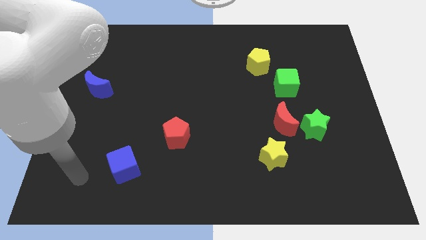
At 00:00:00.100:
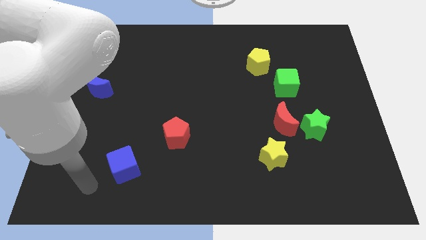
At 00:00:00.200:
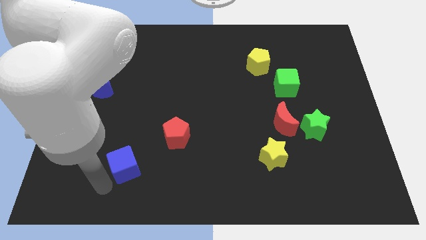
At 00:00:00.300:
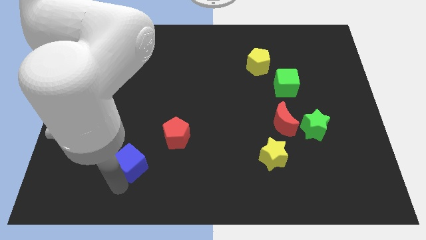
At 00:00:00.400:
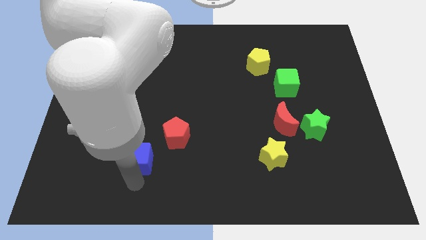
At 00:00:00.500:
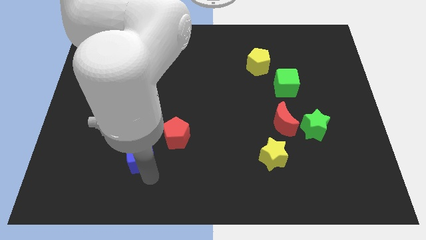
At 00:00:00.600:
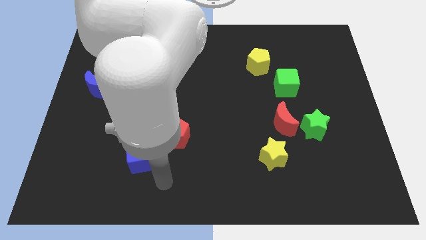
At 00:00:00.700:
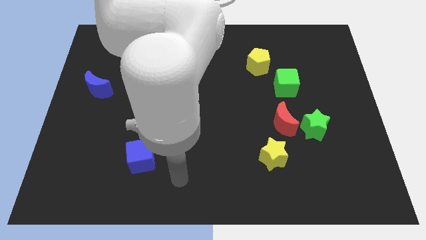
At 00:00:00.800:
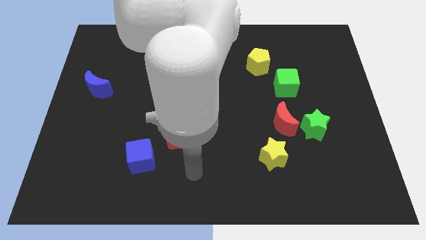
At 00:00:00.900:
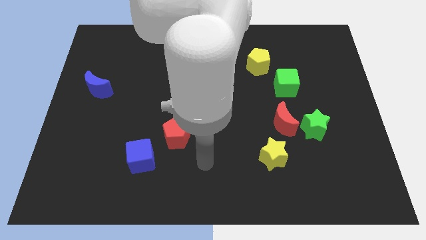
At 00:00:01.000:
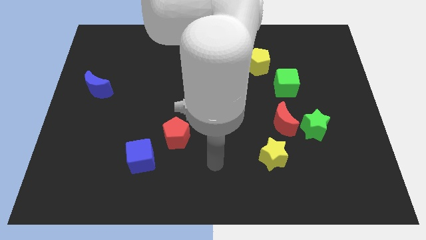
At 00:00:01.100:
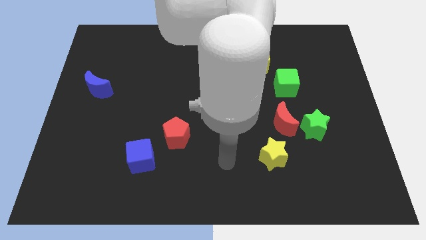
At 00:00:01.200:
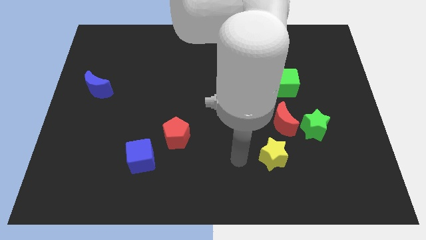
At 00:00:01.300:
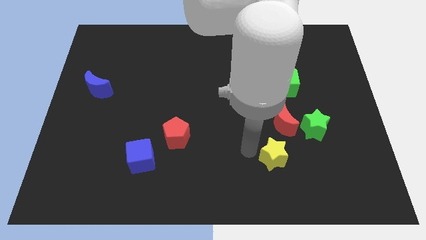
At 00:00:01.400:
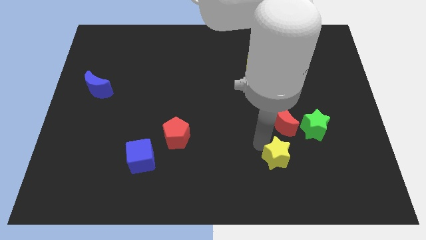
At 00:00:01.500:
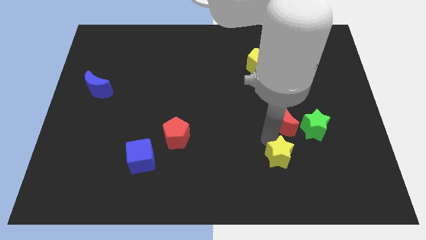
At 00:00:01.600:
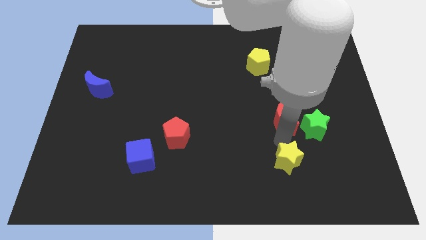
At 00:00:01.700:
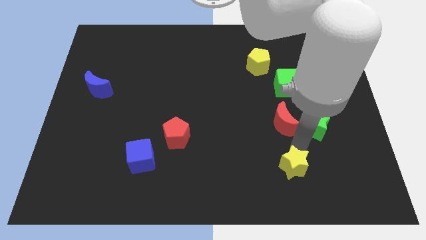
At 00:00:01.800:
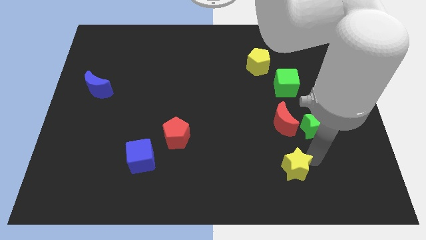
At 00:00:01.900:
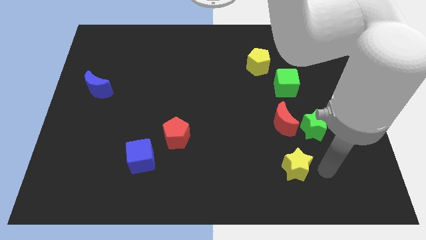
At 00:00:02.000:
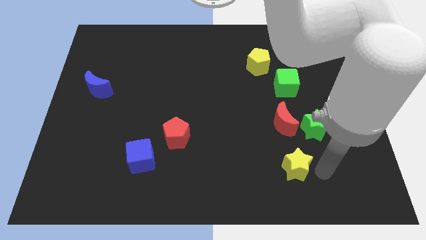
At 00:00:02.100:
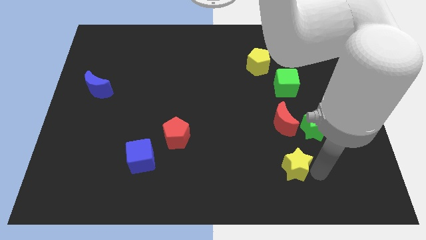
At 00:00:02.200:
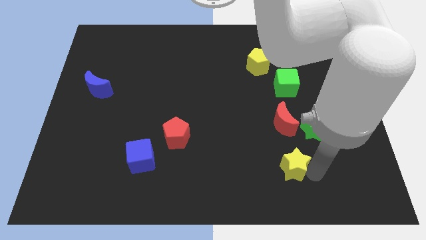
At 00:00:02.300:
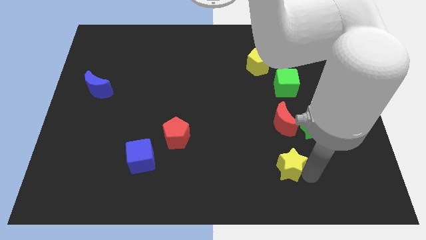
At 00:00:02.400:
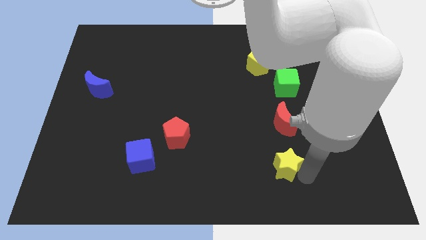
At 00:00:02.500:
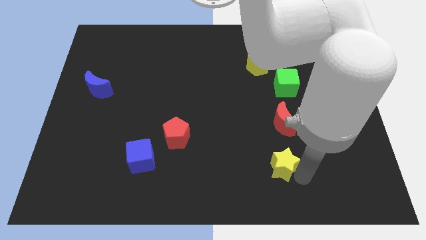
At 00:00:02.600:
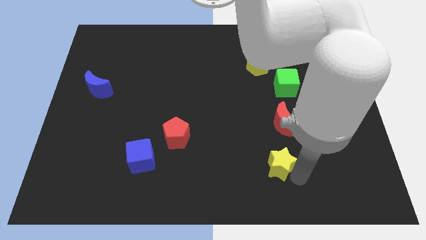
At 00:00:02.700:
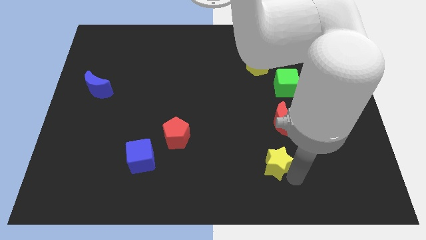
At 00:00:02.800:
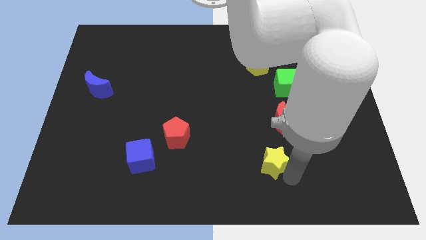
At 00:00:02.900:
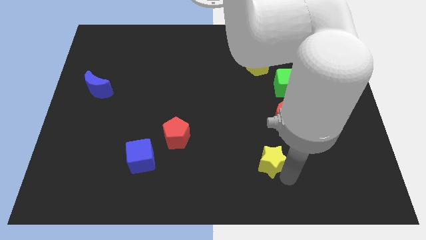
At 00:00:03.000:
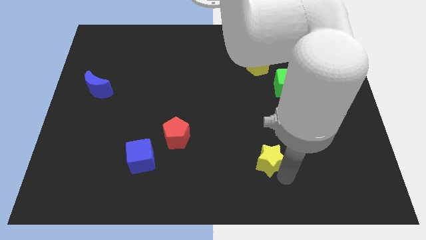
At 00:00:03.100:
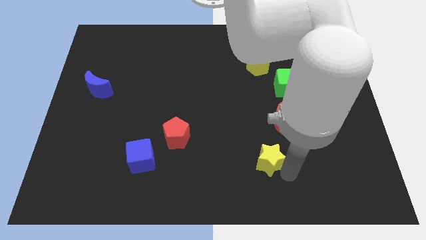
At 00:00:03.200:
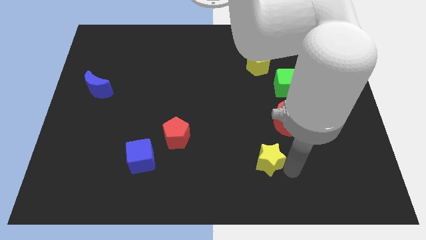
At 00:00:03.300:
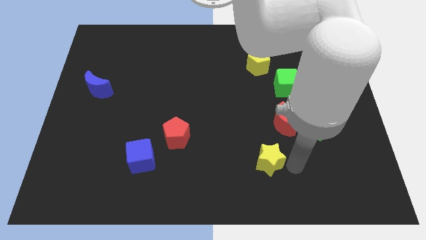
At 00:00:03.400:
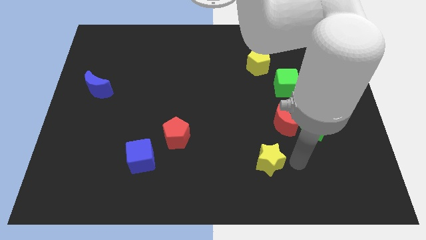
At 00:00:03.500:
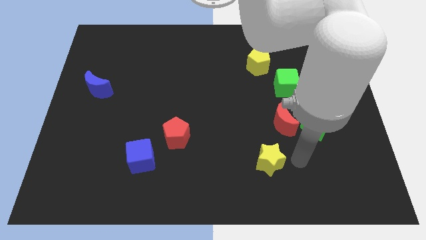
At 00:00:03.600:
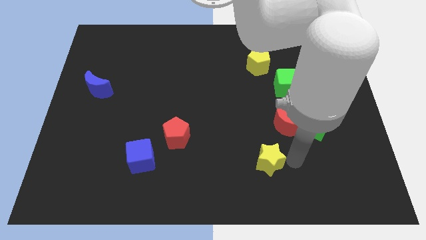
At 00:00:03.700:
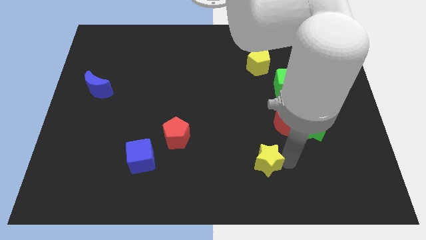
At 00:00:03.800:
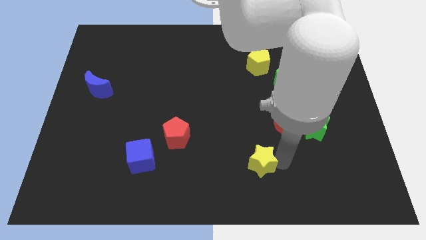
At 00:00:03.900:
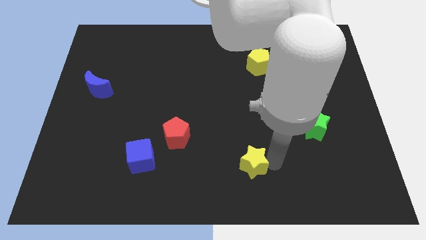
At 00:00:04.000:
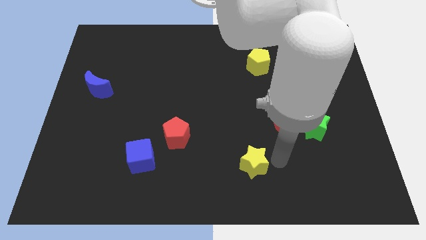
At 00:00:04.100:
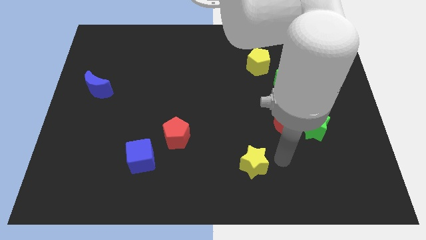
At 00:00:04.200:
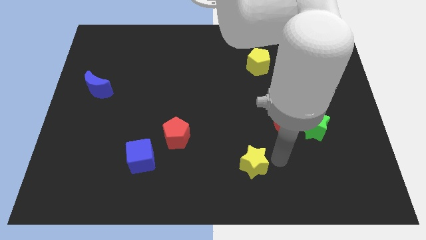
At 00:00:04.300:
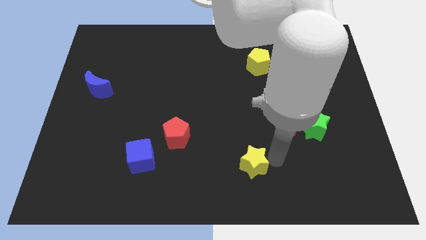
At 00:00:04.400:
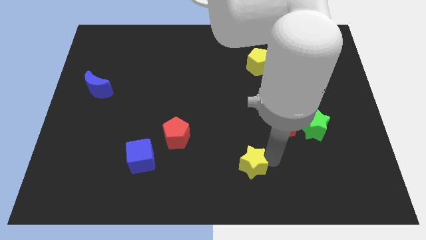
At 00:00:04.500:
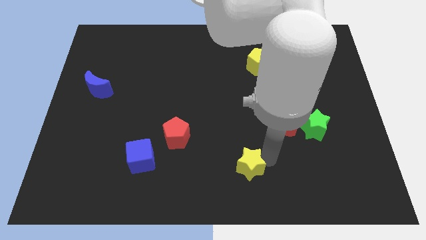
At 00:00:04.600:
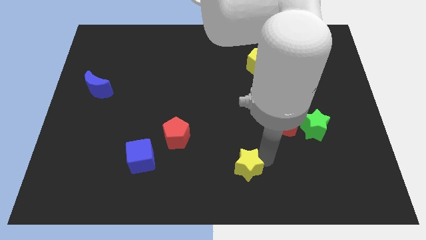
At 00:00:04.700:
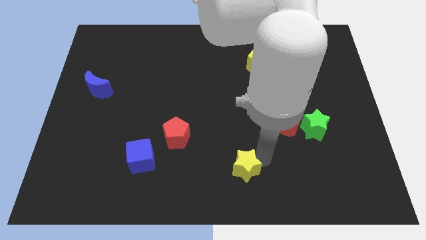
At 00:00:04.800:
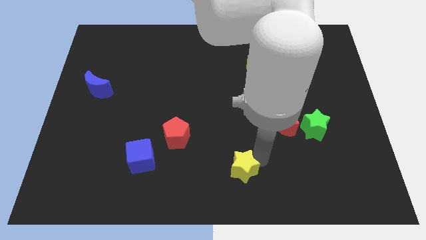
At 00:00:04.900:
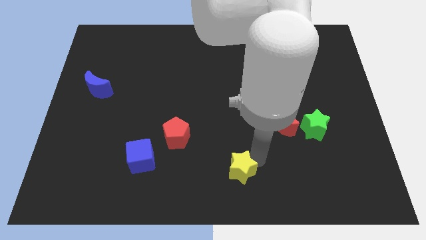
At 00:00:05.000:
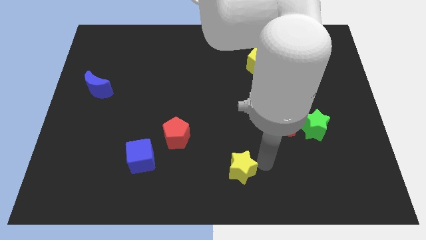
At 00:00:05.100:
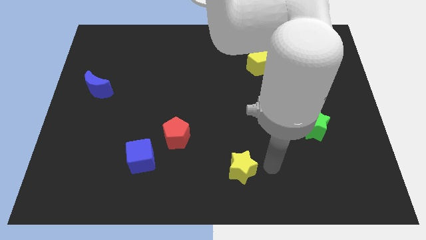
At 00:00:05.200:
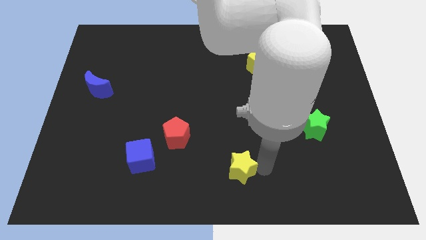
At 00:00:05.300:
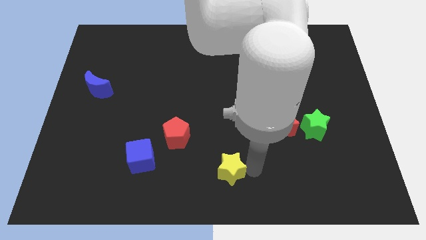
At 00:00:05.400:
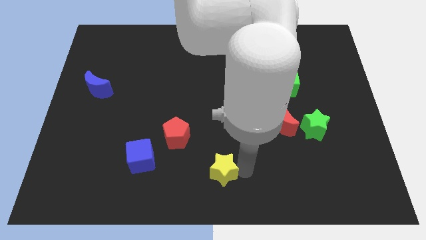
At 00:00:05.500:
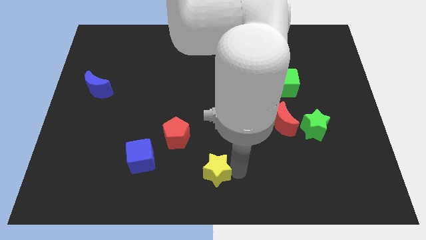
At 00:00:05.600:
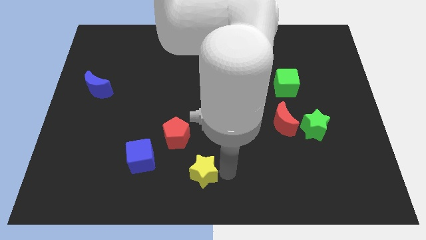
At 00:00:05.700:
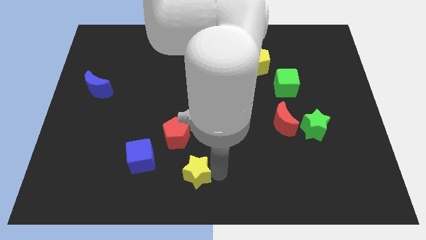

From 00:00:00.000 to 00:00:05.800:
put the yellow star to the bottom of the red pentagon
